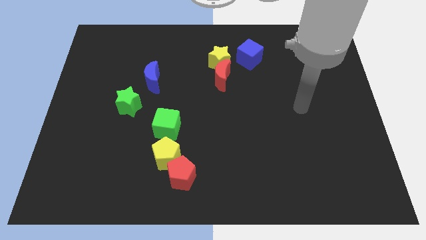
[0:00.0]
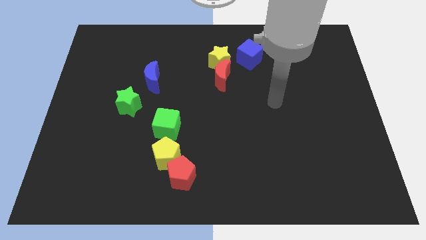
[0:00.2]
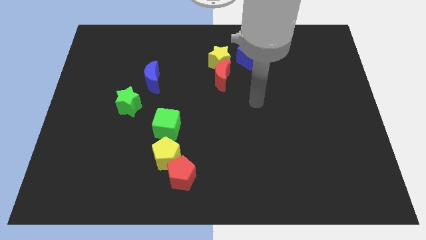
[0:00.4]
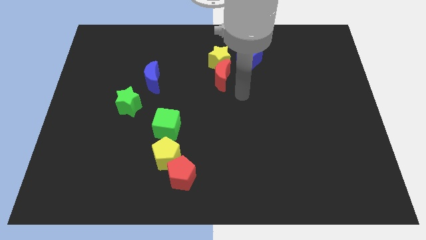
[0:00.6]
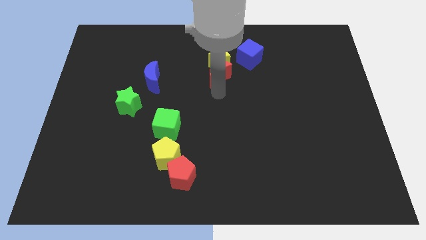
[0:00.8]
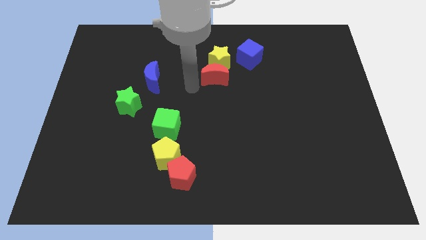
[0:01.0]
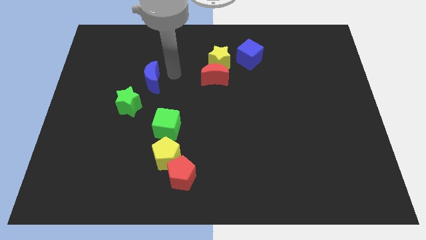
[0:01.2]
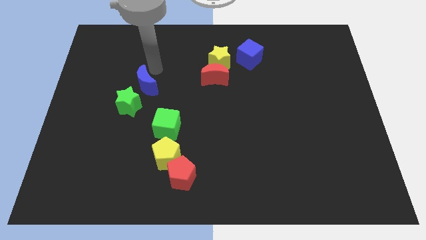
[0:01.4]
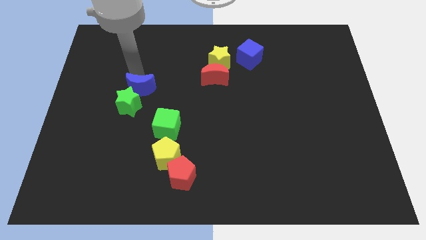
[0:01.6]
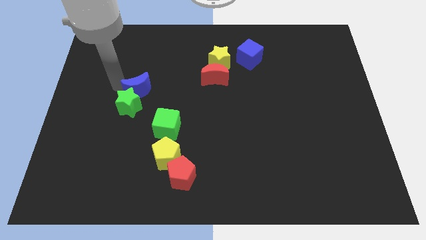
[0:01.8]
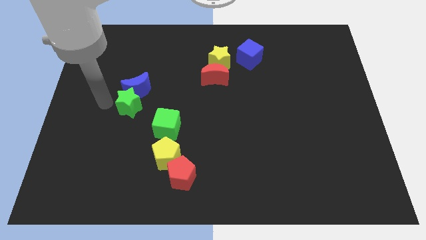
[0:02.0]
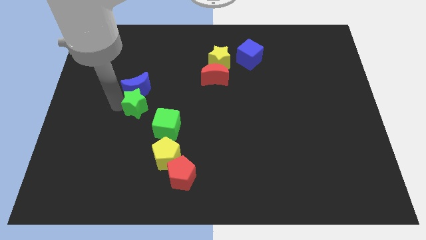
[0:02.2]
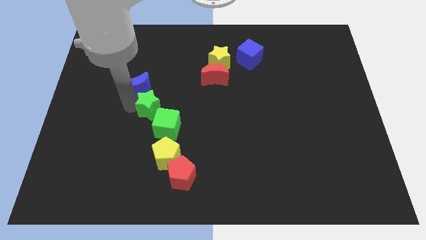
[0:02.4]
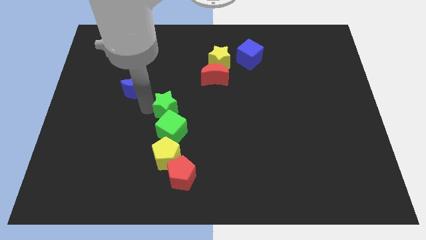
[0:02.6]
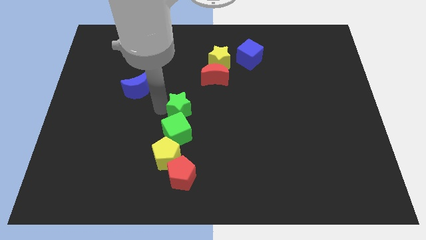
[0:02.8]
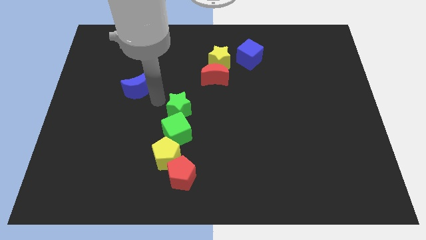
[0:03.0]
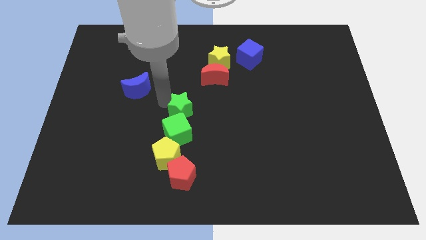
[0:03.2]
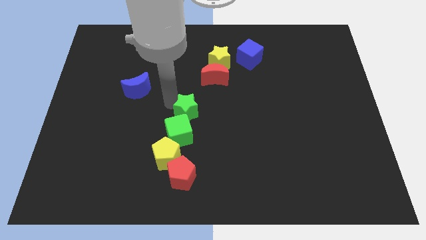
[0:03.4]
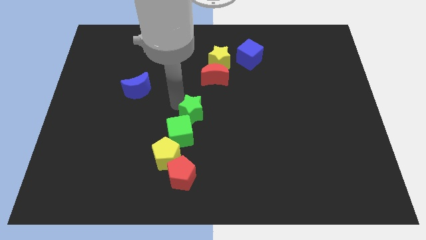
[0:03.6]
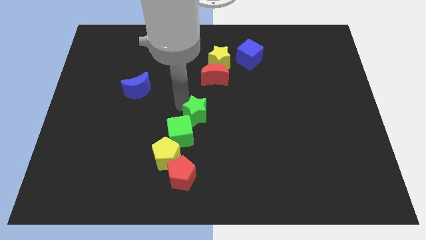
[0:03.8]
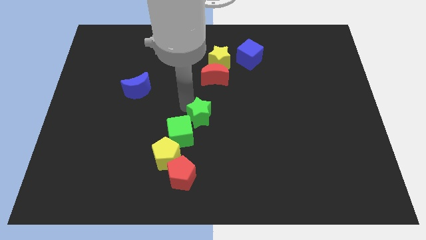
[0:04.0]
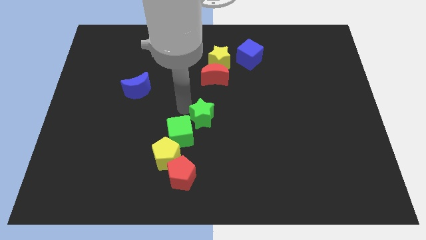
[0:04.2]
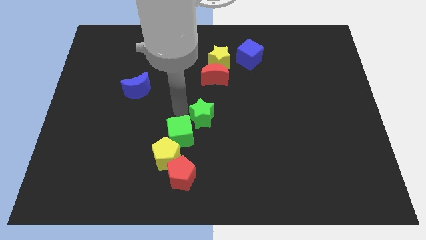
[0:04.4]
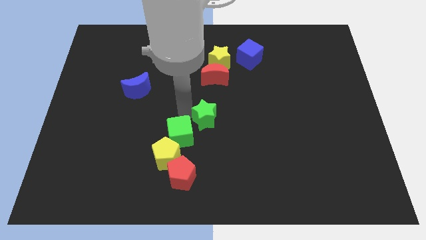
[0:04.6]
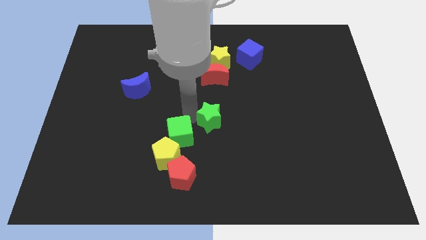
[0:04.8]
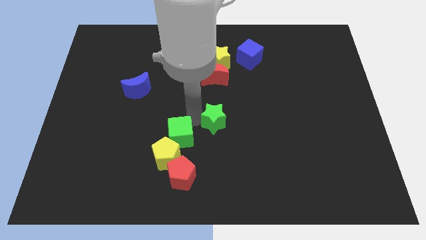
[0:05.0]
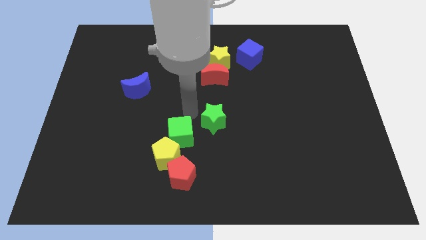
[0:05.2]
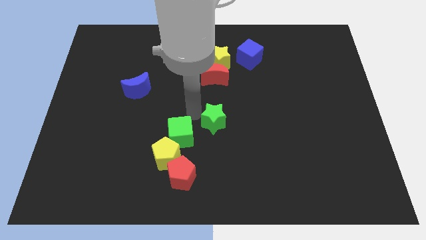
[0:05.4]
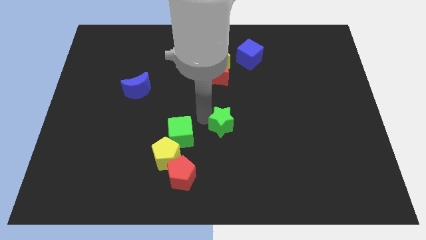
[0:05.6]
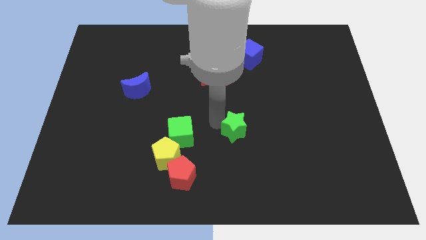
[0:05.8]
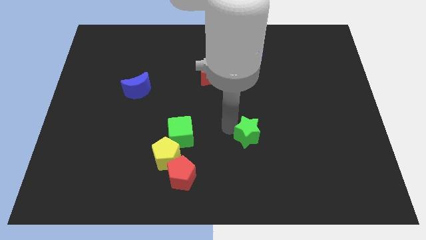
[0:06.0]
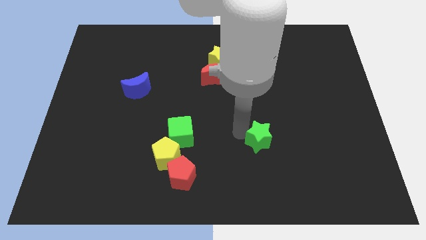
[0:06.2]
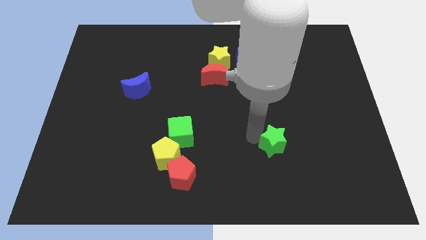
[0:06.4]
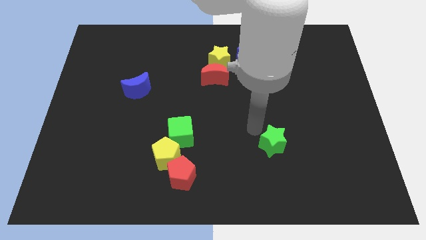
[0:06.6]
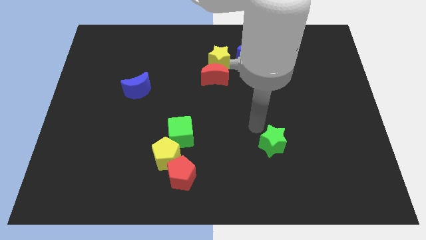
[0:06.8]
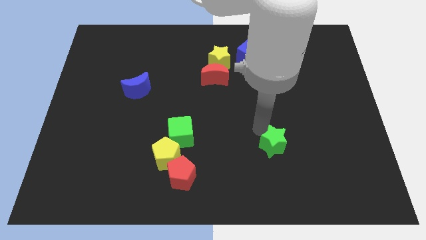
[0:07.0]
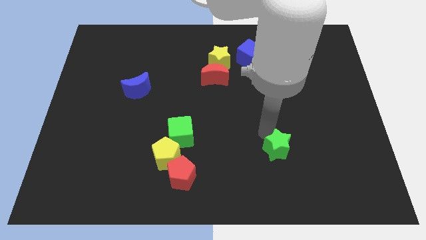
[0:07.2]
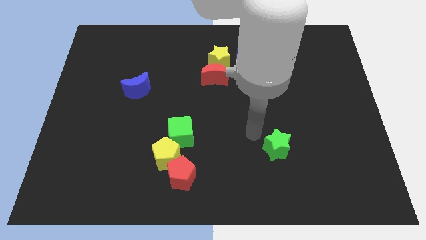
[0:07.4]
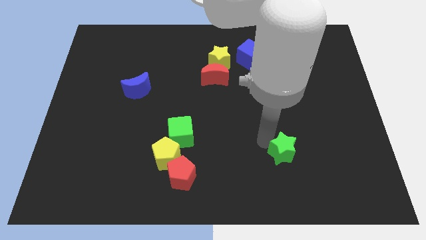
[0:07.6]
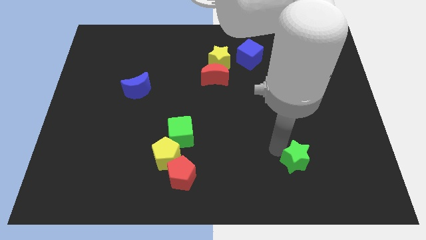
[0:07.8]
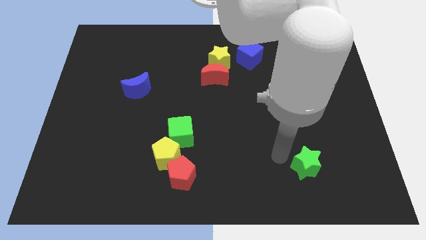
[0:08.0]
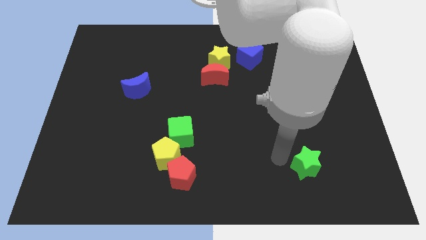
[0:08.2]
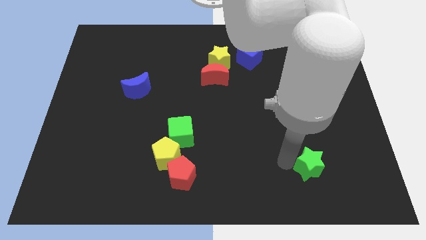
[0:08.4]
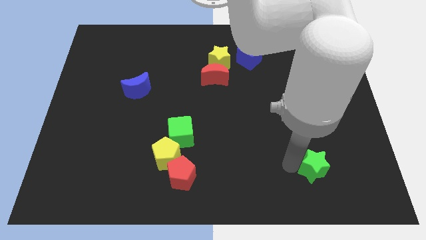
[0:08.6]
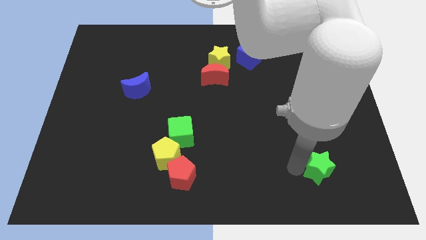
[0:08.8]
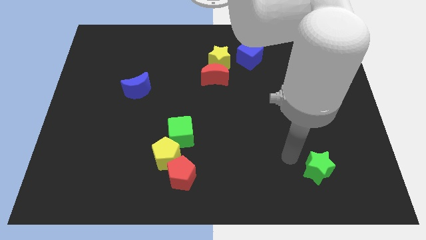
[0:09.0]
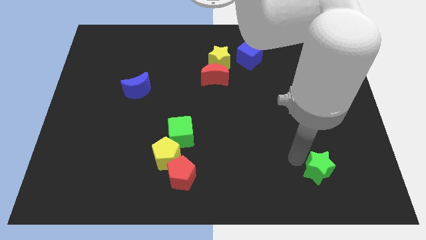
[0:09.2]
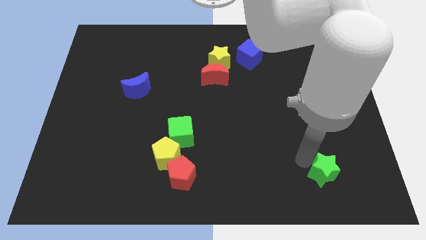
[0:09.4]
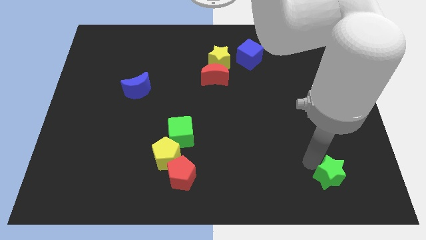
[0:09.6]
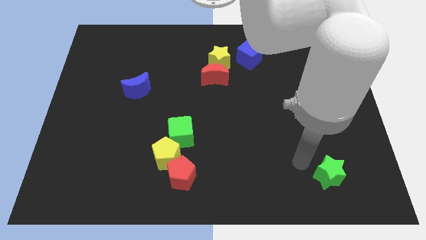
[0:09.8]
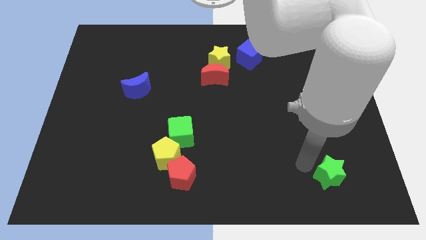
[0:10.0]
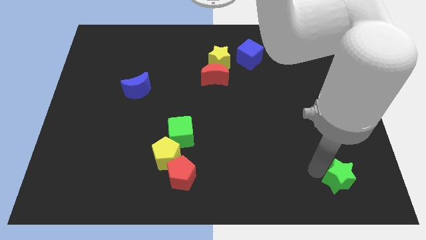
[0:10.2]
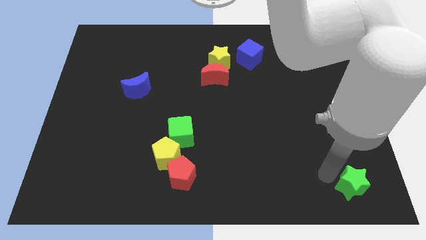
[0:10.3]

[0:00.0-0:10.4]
slide the green star to the lower right corner

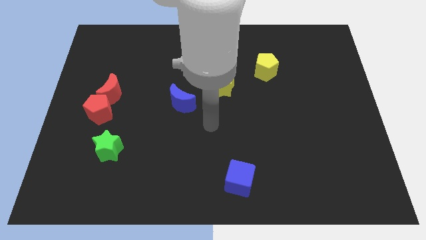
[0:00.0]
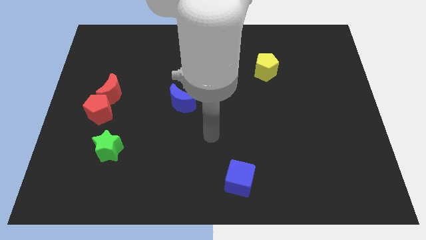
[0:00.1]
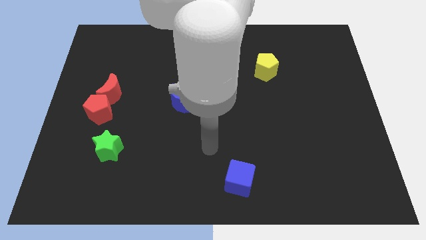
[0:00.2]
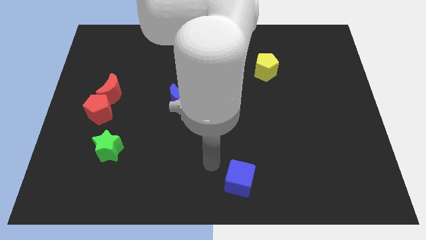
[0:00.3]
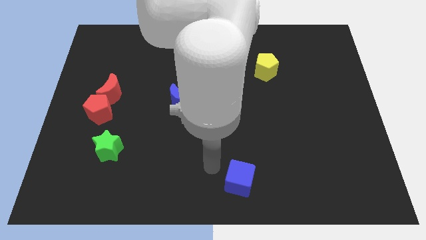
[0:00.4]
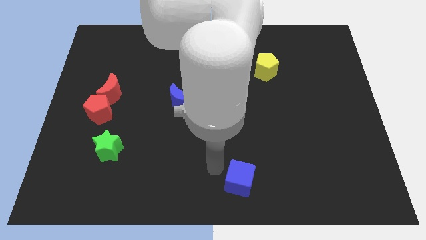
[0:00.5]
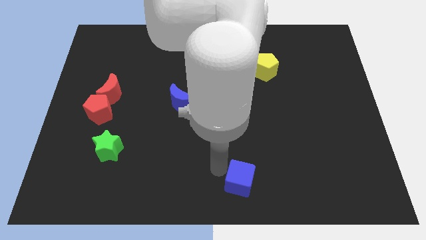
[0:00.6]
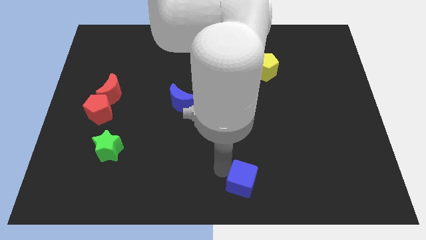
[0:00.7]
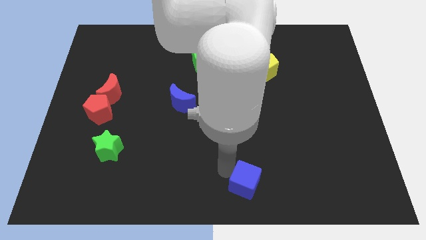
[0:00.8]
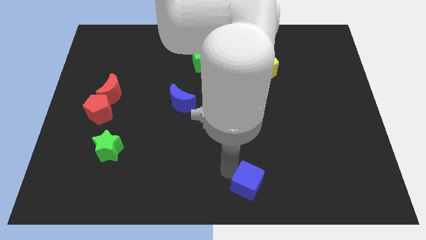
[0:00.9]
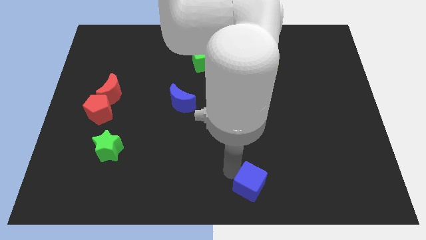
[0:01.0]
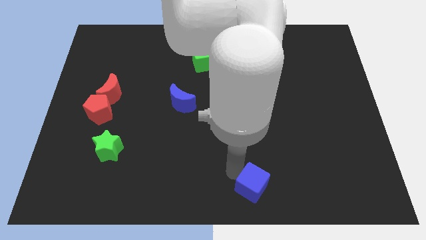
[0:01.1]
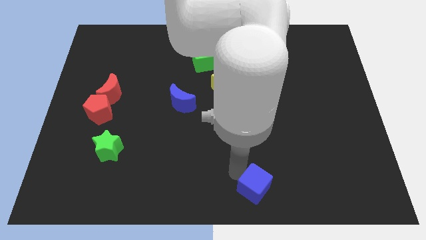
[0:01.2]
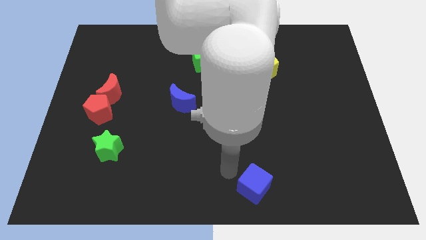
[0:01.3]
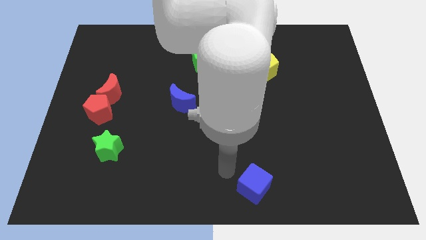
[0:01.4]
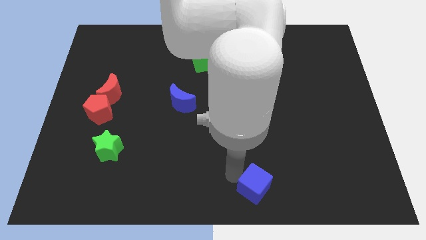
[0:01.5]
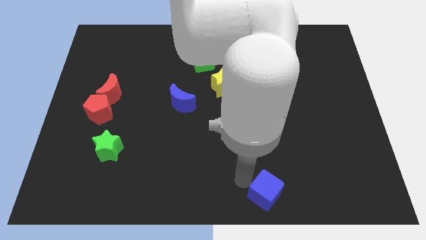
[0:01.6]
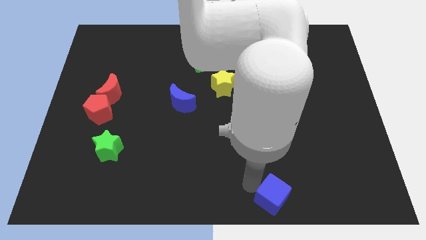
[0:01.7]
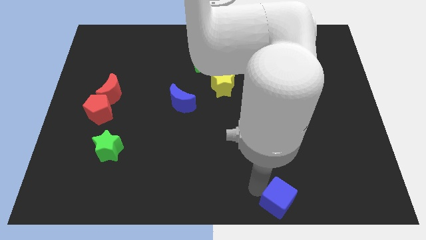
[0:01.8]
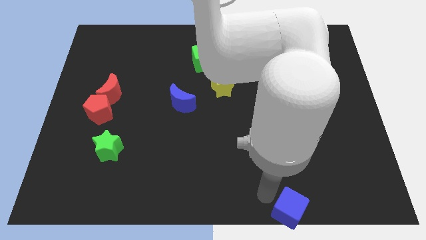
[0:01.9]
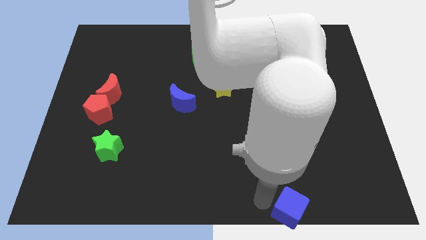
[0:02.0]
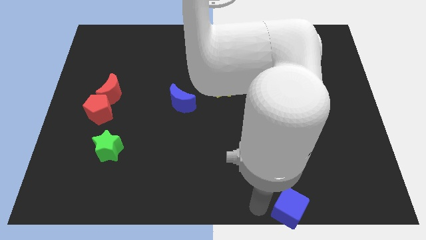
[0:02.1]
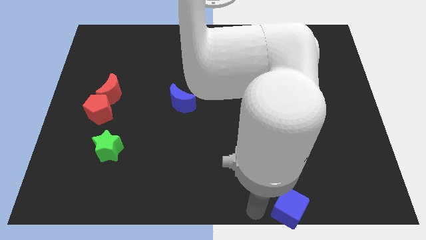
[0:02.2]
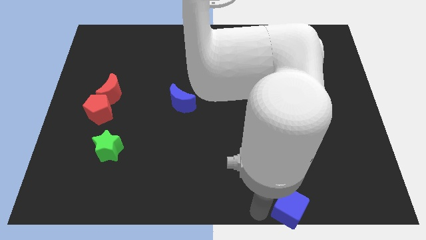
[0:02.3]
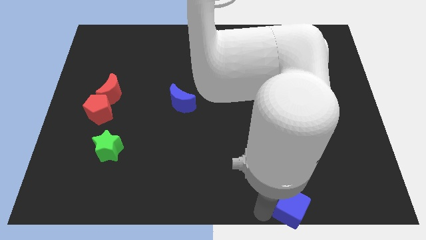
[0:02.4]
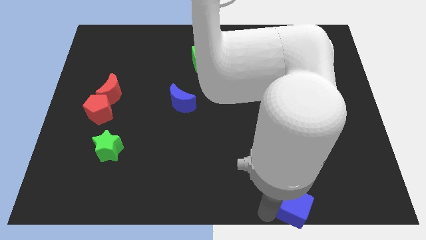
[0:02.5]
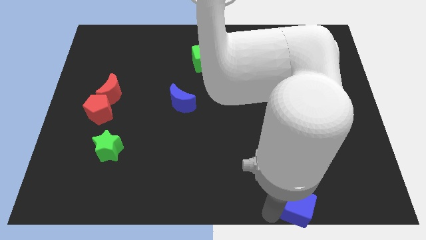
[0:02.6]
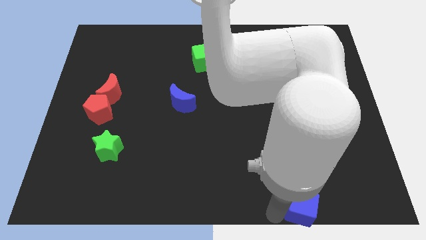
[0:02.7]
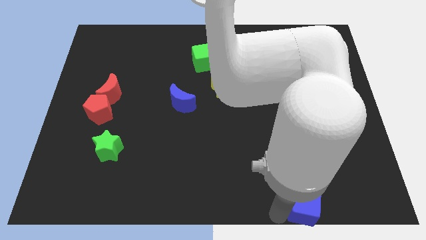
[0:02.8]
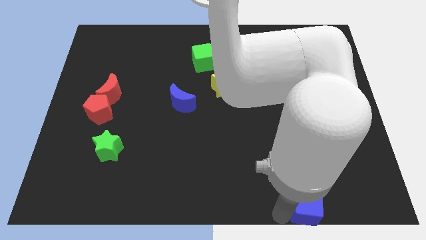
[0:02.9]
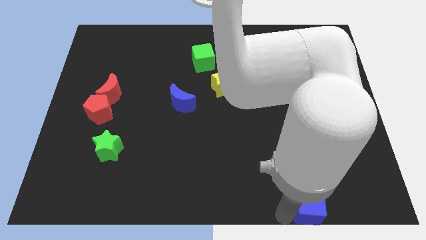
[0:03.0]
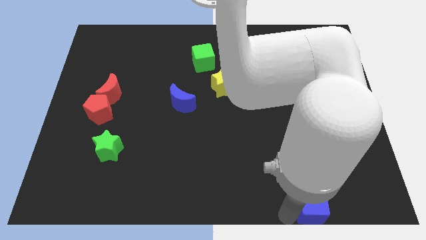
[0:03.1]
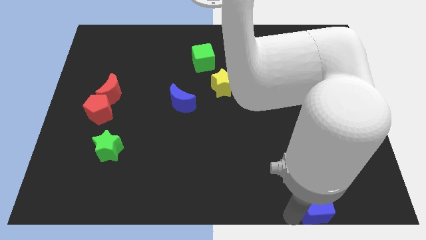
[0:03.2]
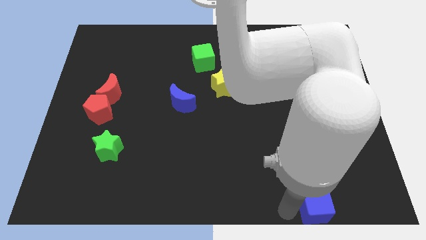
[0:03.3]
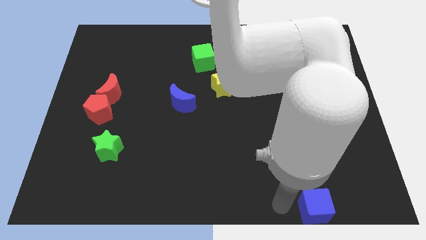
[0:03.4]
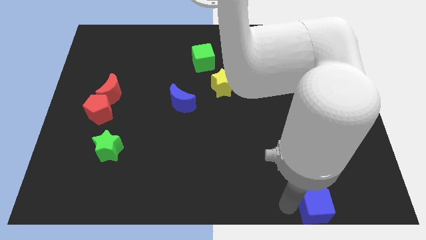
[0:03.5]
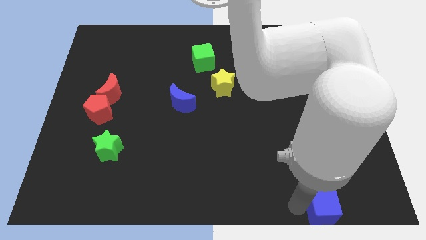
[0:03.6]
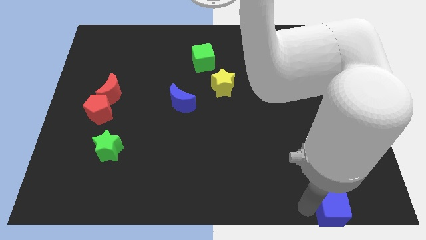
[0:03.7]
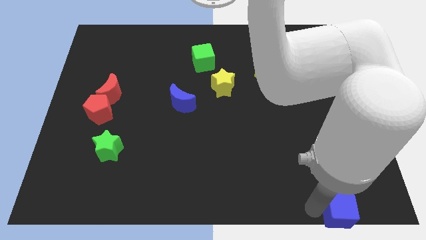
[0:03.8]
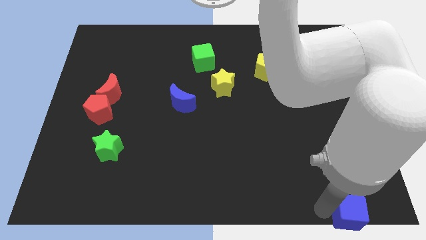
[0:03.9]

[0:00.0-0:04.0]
put the blue cube to the bottom right
